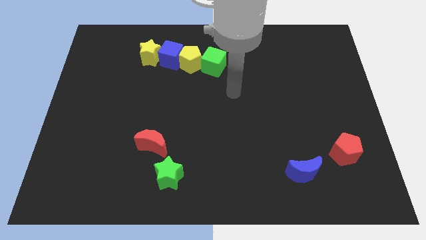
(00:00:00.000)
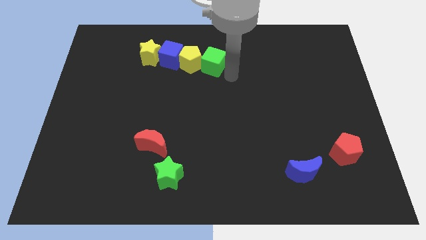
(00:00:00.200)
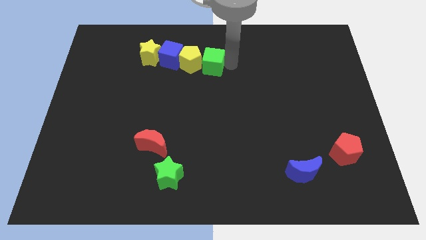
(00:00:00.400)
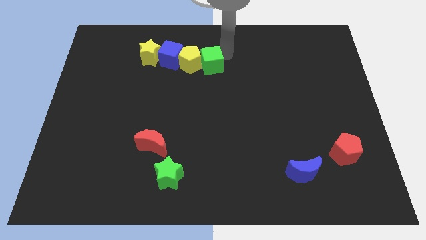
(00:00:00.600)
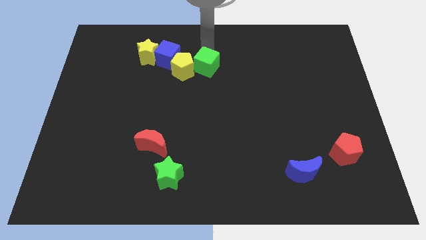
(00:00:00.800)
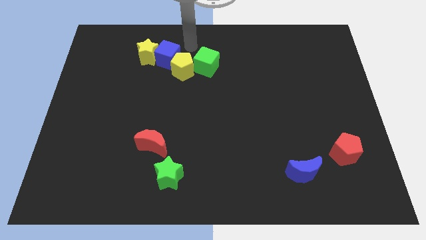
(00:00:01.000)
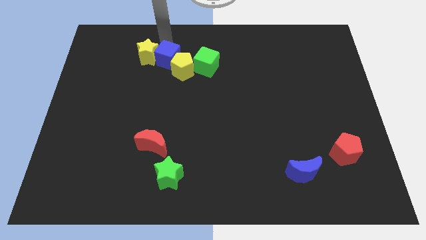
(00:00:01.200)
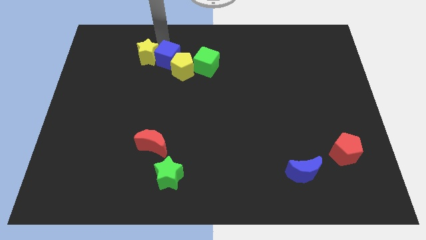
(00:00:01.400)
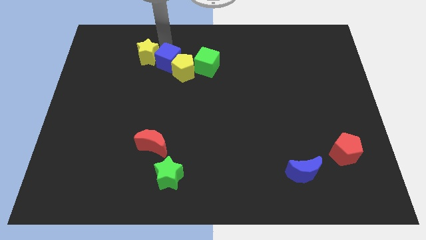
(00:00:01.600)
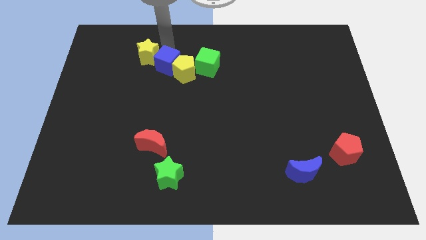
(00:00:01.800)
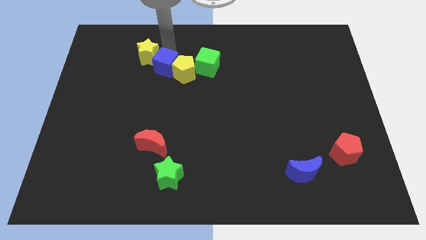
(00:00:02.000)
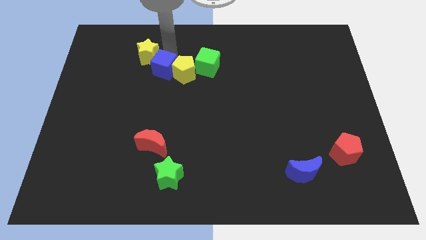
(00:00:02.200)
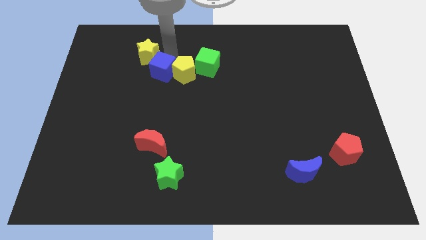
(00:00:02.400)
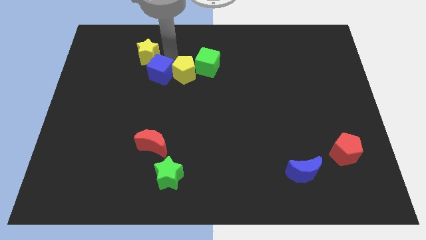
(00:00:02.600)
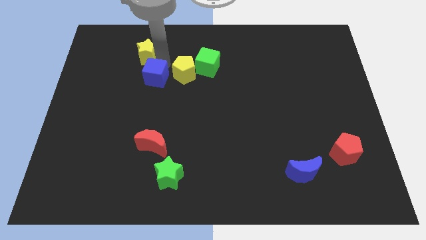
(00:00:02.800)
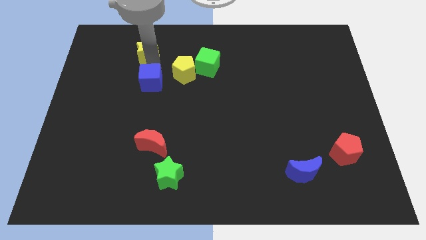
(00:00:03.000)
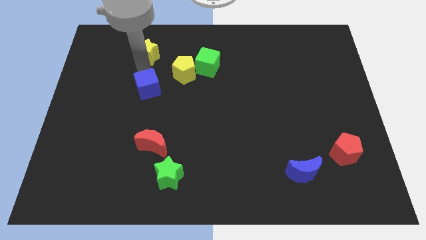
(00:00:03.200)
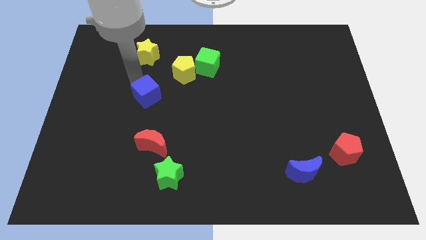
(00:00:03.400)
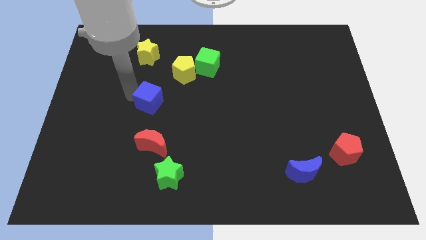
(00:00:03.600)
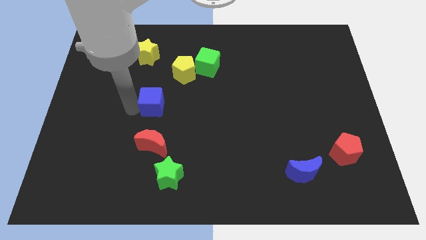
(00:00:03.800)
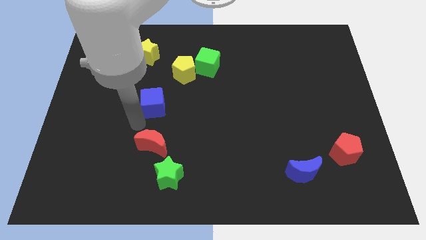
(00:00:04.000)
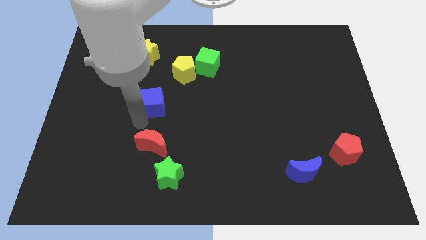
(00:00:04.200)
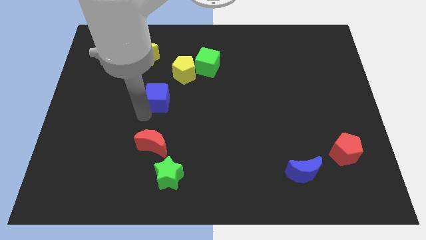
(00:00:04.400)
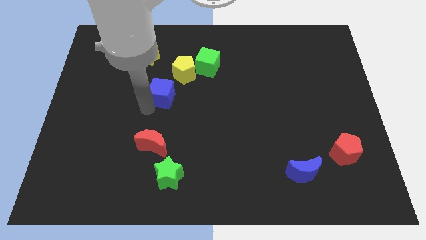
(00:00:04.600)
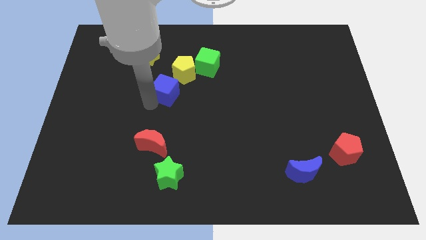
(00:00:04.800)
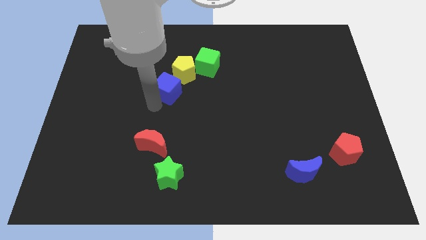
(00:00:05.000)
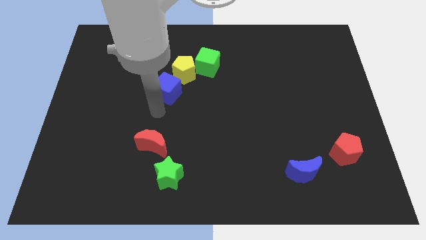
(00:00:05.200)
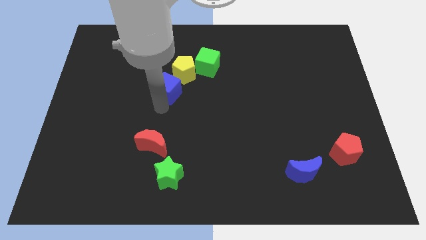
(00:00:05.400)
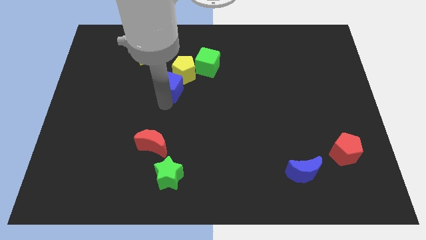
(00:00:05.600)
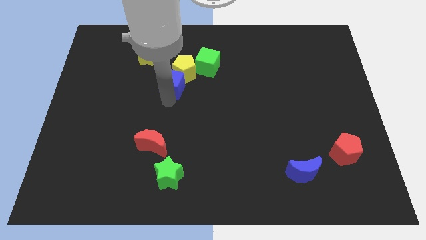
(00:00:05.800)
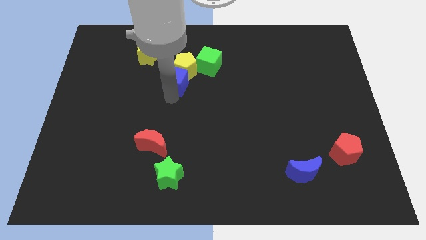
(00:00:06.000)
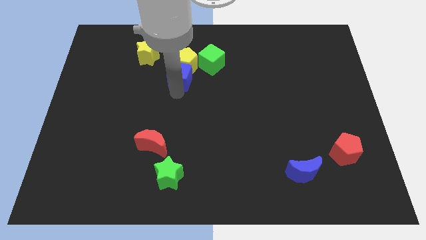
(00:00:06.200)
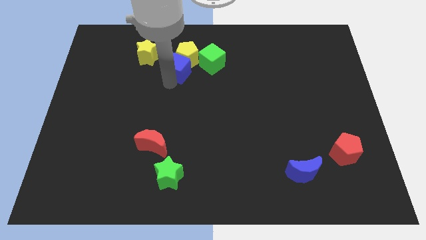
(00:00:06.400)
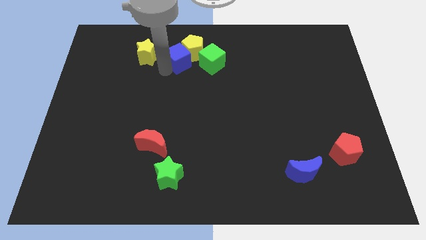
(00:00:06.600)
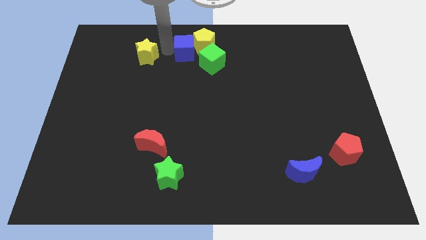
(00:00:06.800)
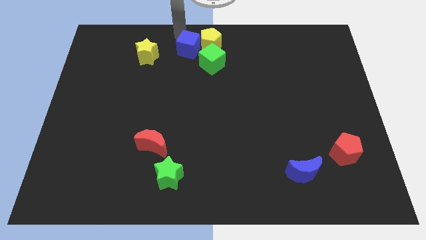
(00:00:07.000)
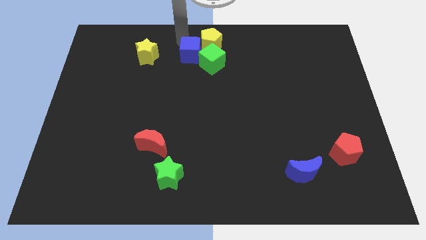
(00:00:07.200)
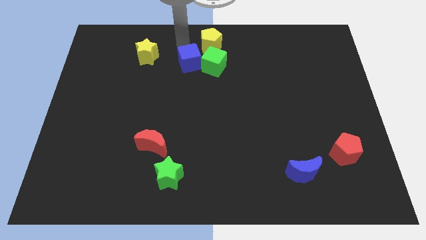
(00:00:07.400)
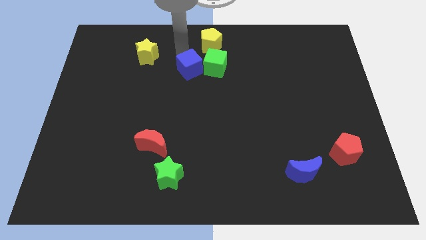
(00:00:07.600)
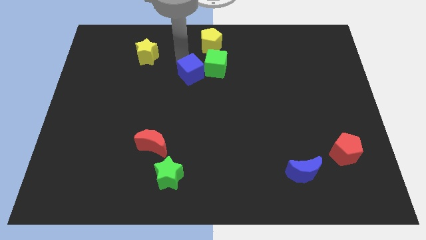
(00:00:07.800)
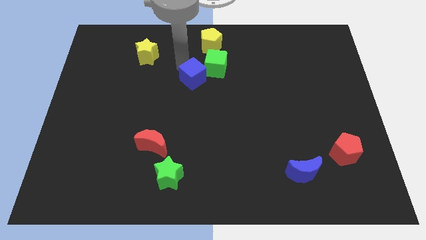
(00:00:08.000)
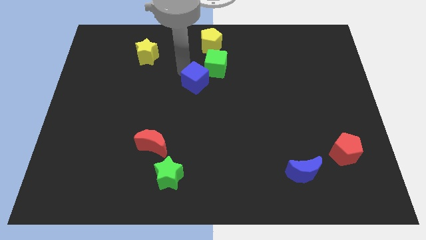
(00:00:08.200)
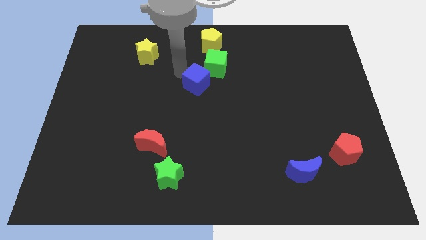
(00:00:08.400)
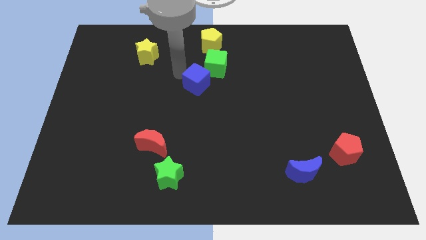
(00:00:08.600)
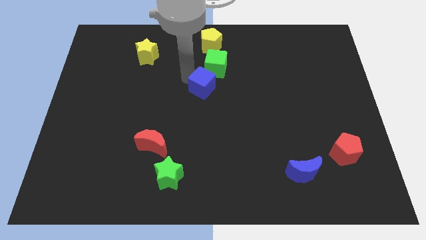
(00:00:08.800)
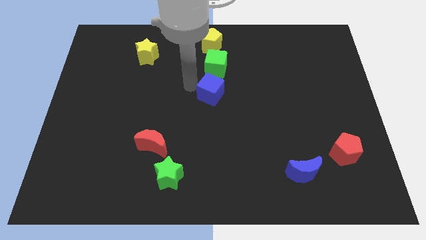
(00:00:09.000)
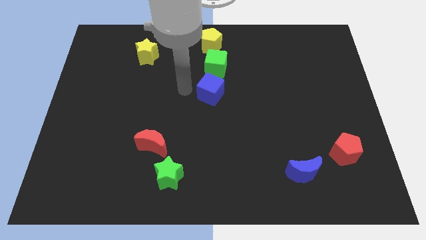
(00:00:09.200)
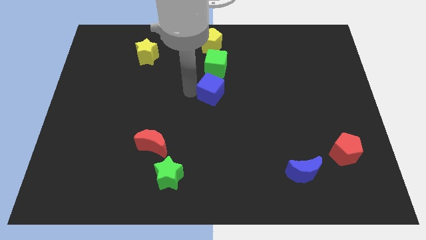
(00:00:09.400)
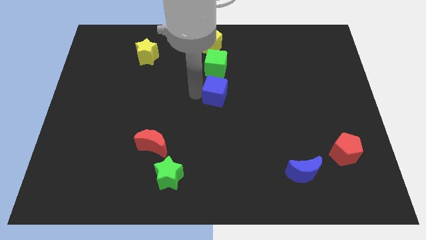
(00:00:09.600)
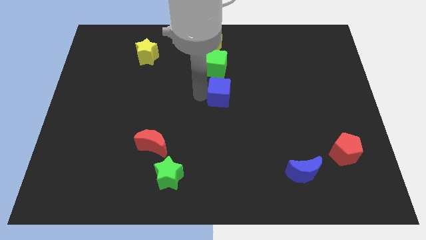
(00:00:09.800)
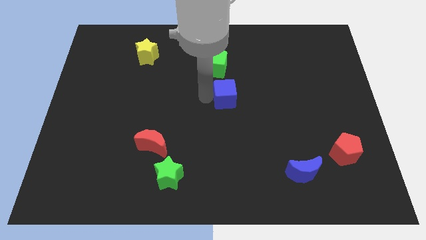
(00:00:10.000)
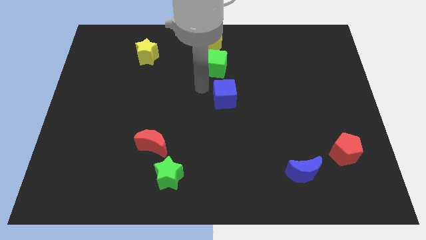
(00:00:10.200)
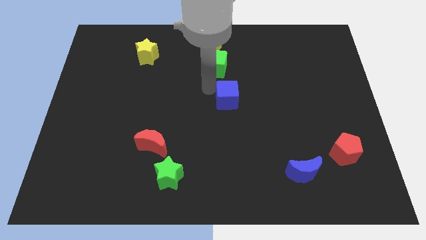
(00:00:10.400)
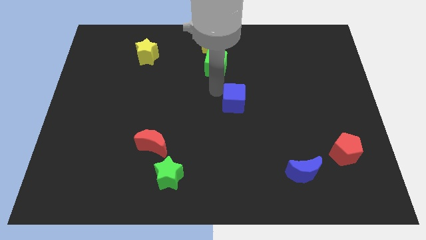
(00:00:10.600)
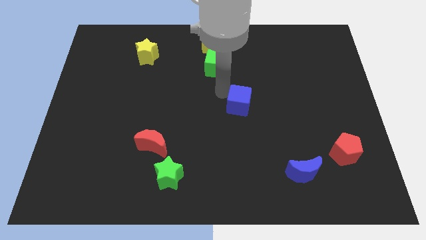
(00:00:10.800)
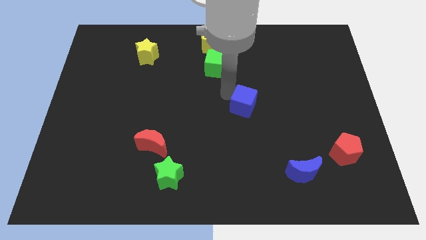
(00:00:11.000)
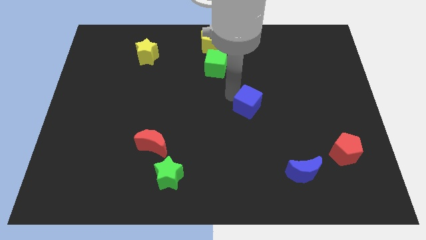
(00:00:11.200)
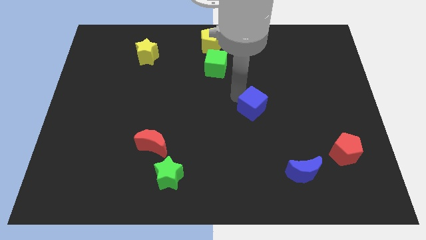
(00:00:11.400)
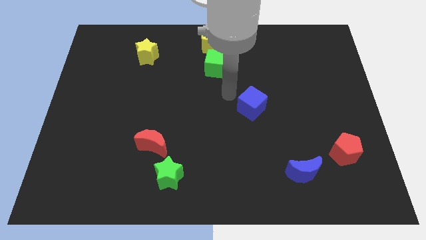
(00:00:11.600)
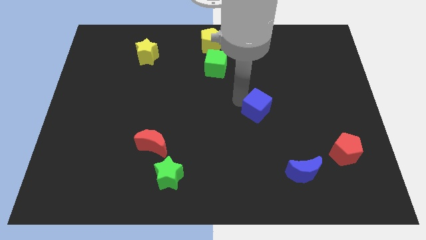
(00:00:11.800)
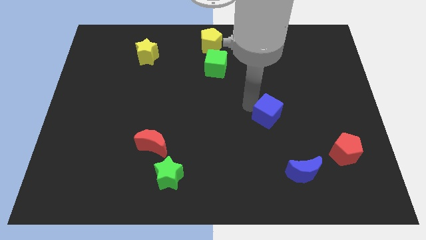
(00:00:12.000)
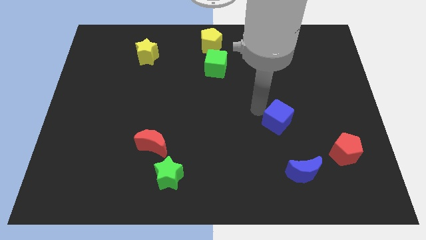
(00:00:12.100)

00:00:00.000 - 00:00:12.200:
push the blue cube to the top of the blue moon
